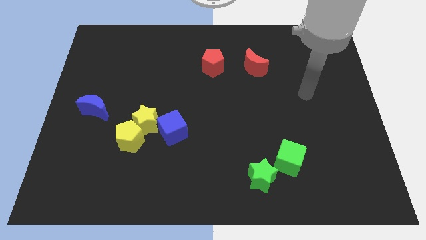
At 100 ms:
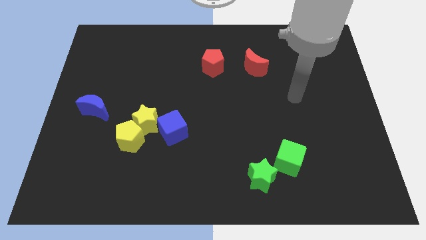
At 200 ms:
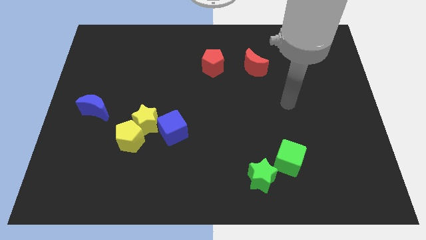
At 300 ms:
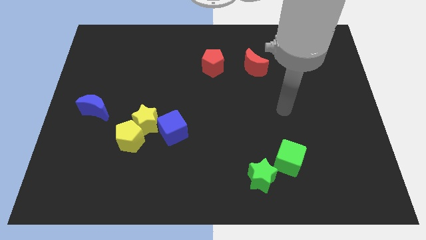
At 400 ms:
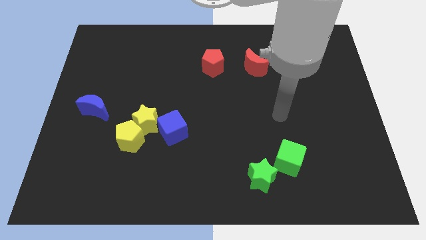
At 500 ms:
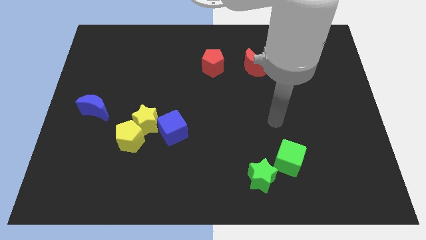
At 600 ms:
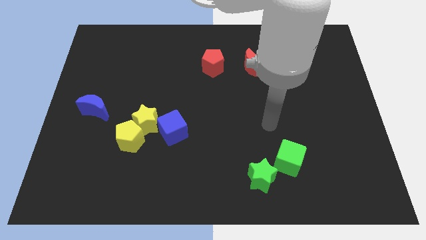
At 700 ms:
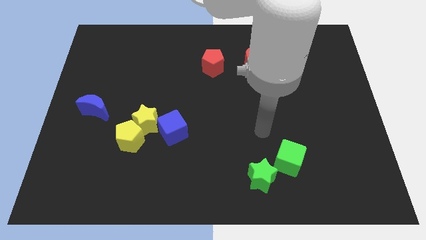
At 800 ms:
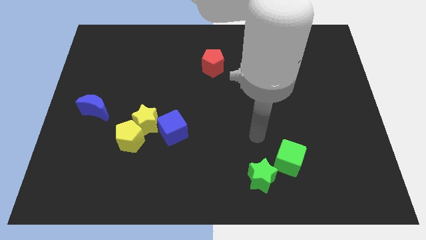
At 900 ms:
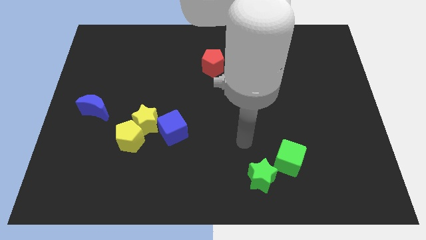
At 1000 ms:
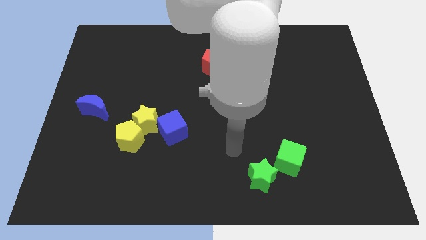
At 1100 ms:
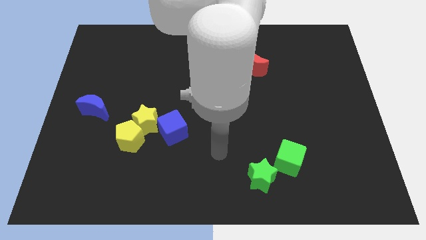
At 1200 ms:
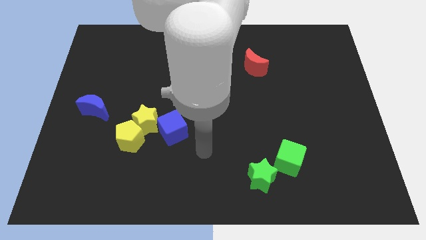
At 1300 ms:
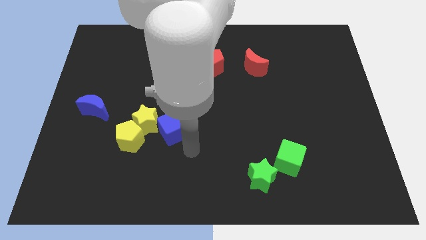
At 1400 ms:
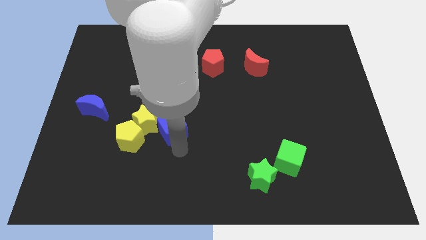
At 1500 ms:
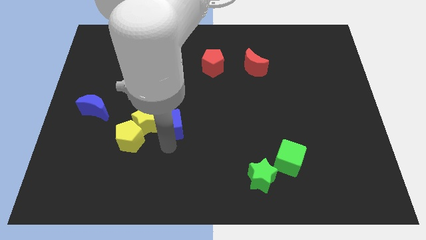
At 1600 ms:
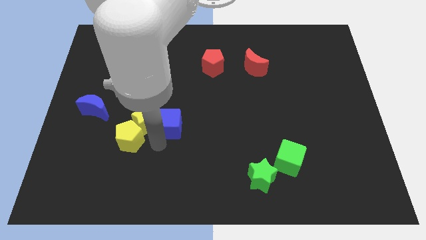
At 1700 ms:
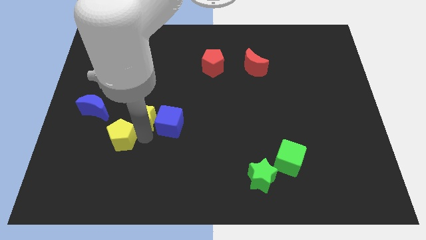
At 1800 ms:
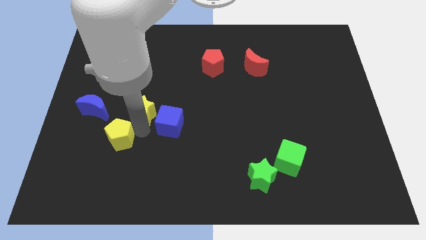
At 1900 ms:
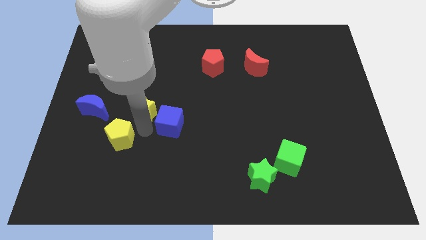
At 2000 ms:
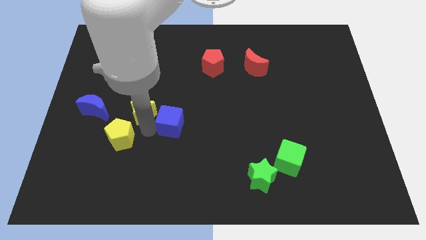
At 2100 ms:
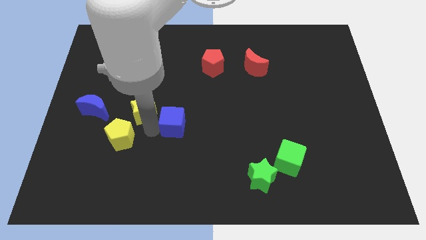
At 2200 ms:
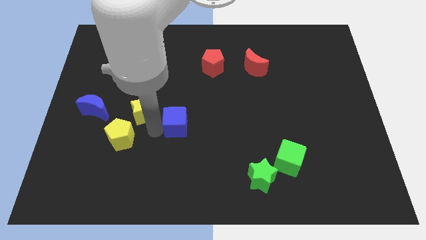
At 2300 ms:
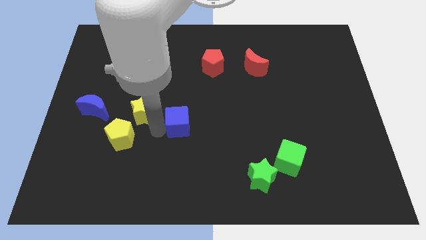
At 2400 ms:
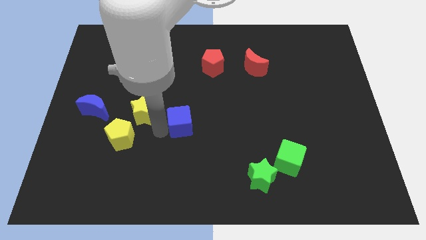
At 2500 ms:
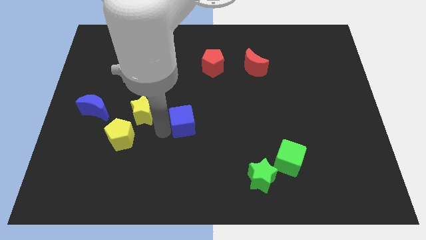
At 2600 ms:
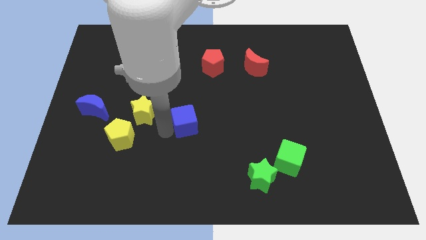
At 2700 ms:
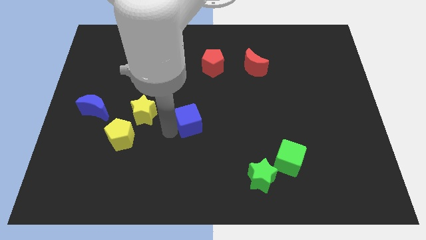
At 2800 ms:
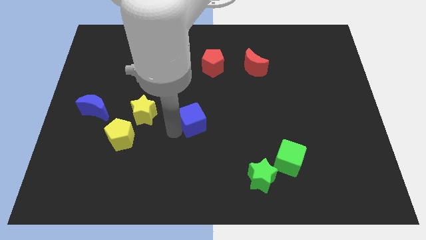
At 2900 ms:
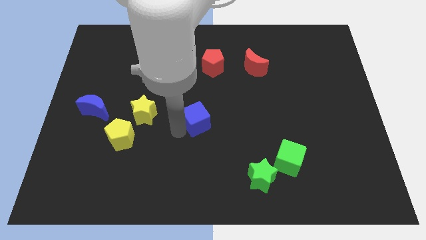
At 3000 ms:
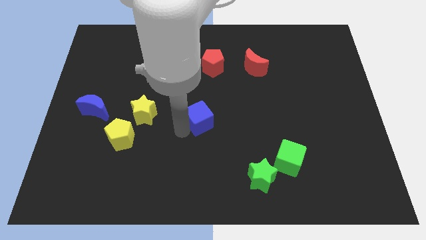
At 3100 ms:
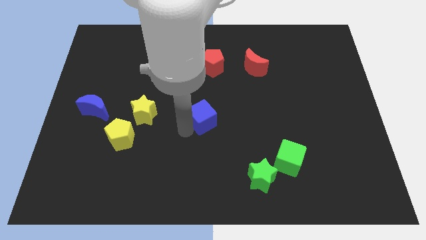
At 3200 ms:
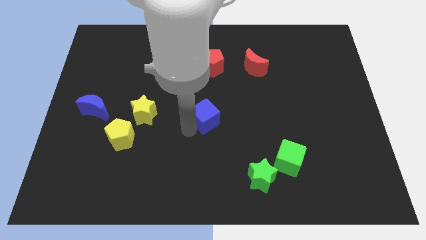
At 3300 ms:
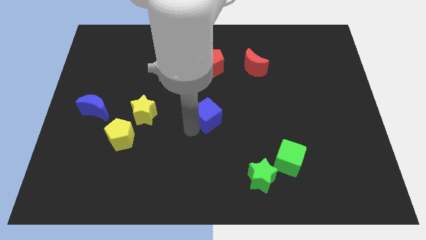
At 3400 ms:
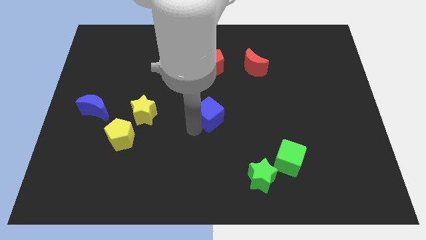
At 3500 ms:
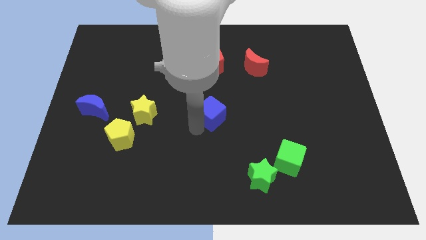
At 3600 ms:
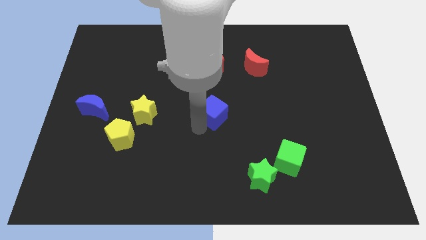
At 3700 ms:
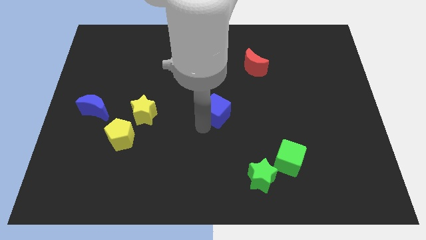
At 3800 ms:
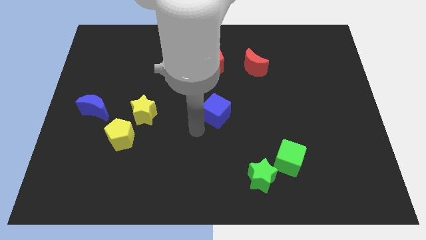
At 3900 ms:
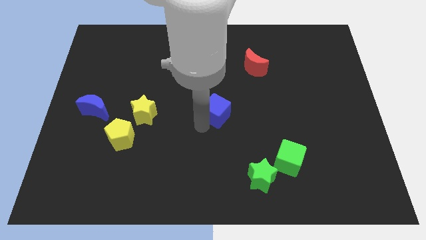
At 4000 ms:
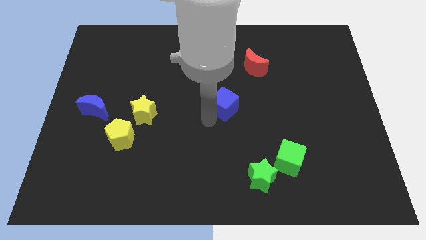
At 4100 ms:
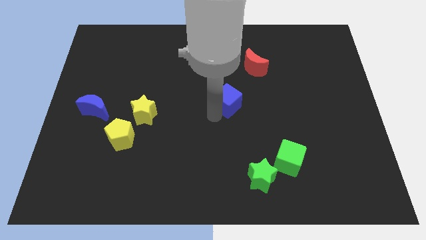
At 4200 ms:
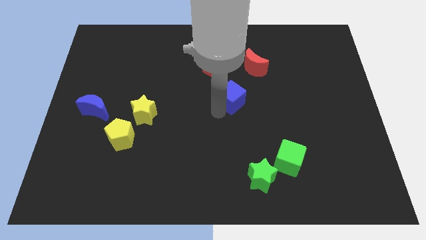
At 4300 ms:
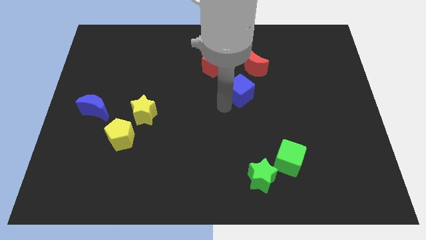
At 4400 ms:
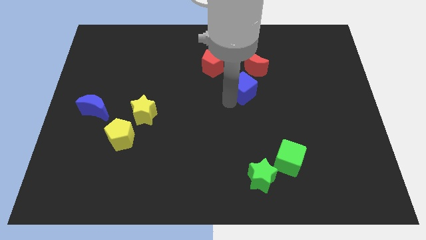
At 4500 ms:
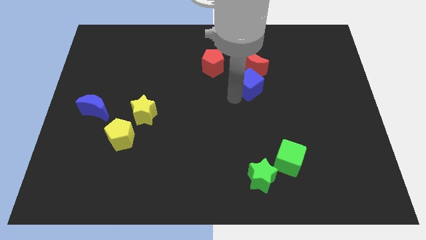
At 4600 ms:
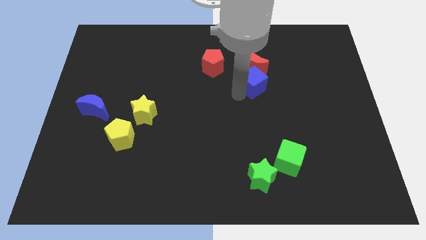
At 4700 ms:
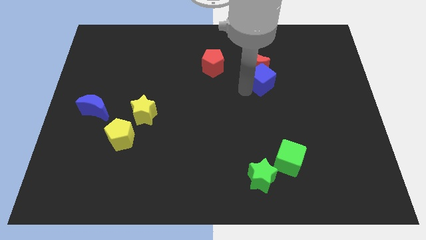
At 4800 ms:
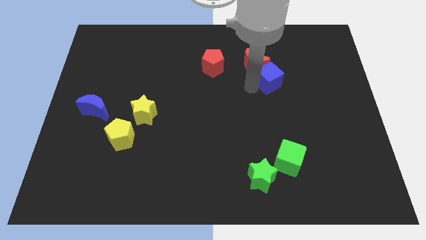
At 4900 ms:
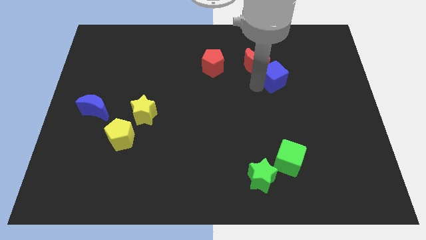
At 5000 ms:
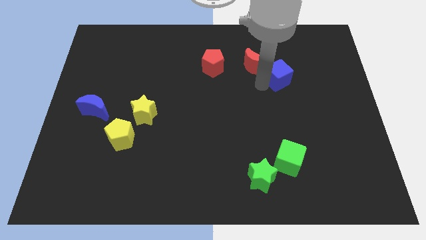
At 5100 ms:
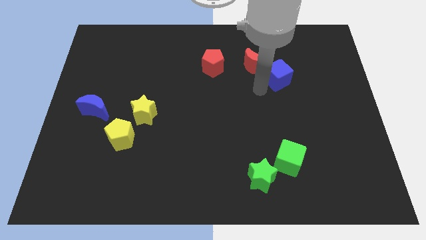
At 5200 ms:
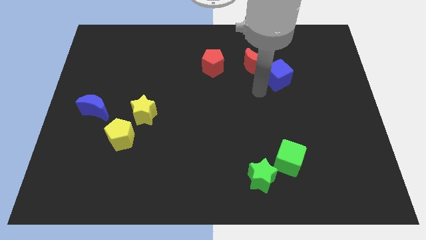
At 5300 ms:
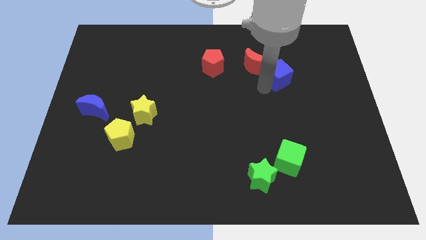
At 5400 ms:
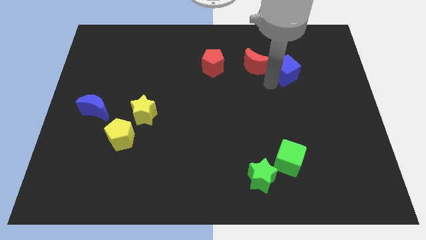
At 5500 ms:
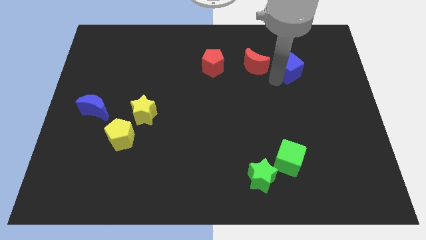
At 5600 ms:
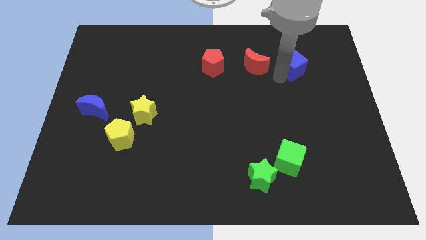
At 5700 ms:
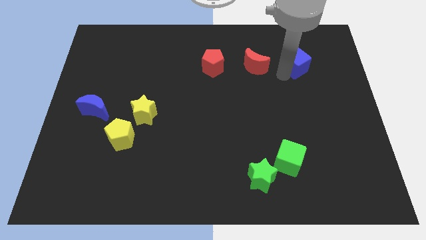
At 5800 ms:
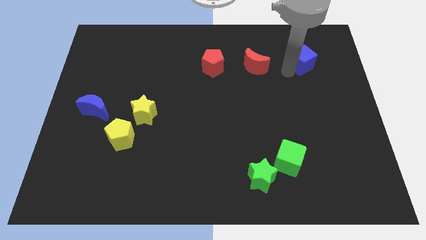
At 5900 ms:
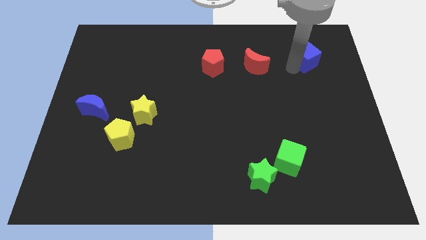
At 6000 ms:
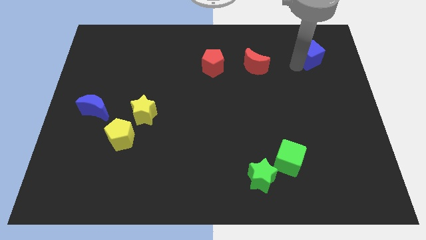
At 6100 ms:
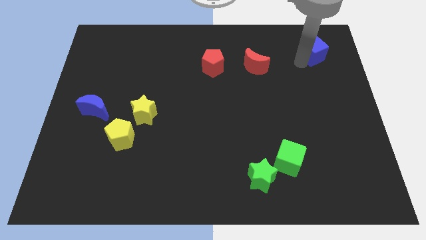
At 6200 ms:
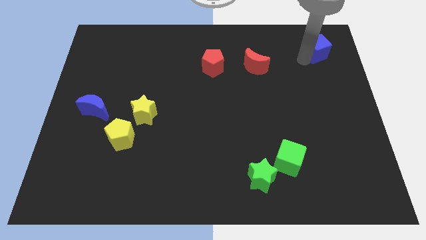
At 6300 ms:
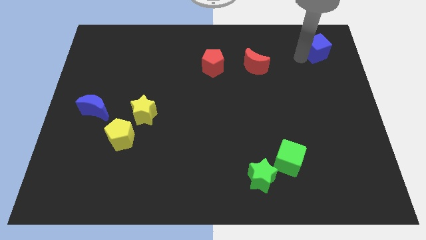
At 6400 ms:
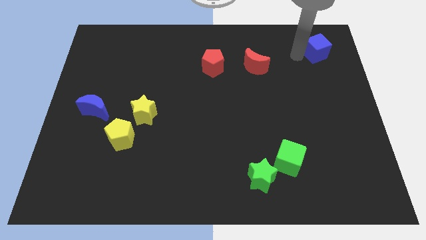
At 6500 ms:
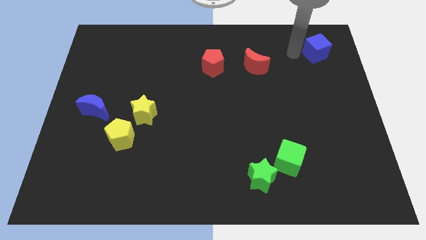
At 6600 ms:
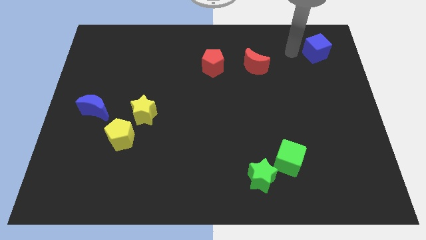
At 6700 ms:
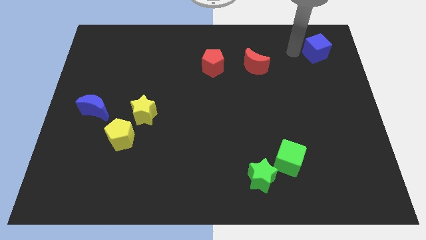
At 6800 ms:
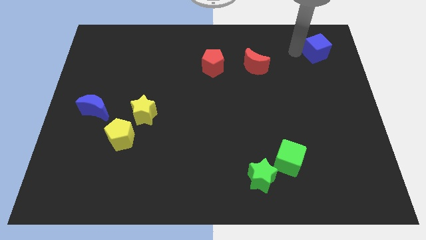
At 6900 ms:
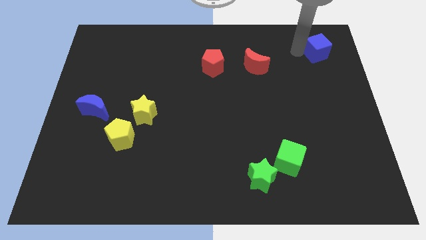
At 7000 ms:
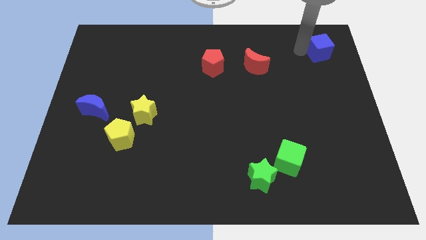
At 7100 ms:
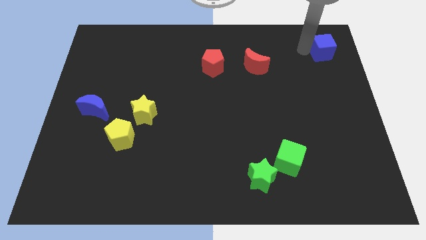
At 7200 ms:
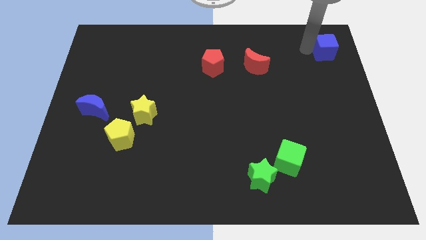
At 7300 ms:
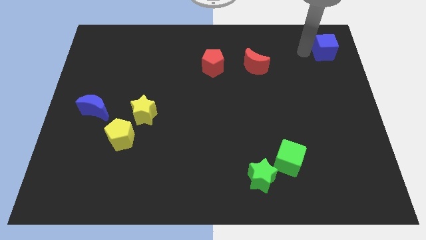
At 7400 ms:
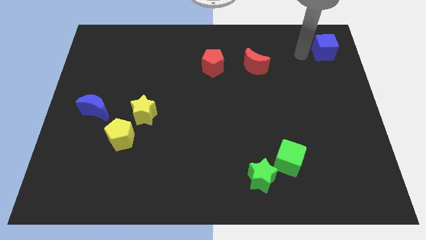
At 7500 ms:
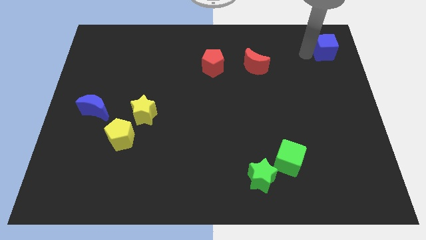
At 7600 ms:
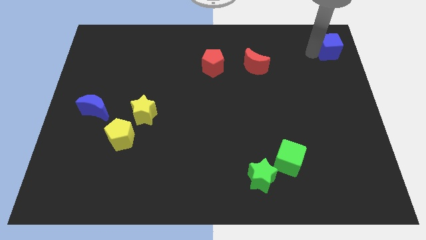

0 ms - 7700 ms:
push the blue cube to the upper right corner
